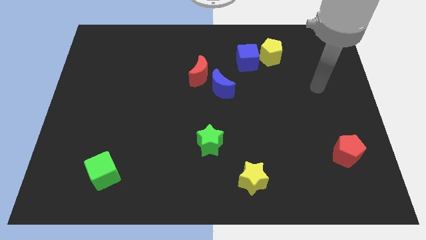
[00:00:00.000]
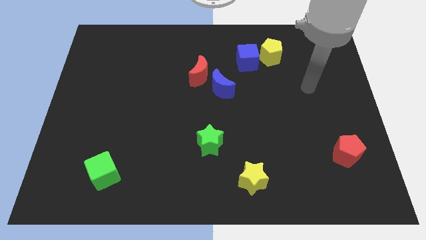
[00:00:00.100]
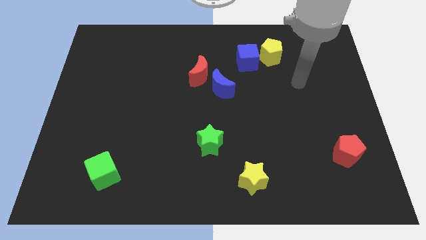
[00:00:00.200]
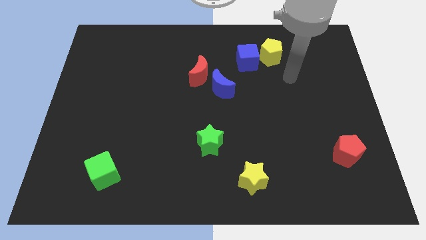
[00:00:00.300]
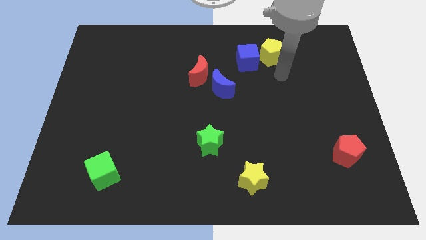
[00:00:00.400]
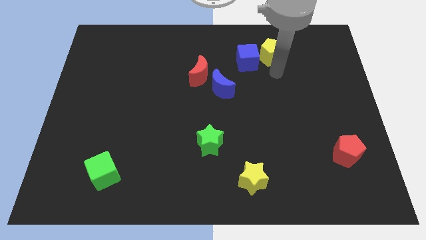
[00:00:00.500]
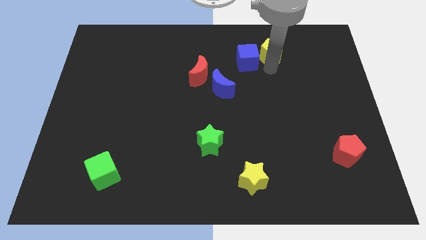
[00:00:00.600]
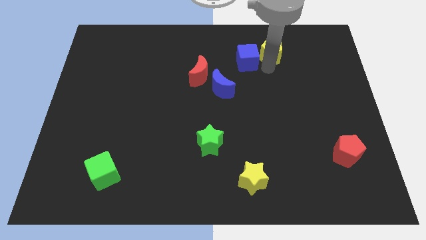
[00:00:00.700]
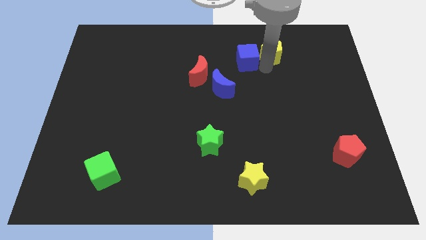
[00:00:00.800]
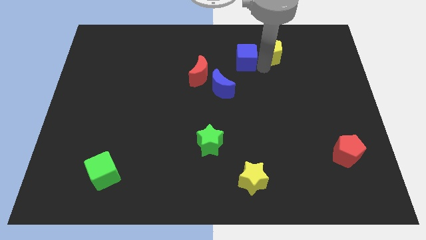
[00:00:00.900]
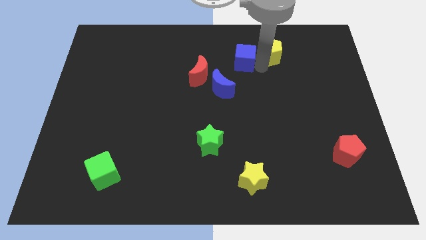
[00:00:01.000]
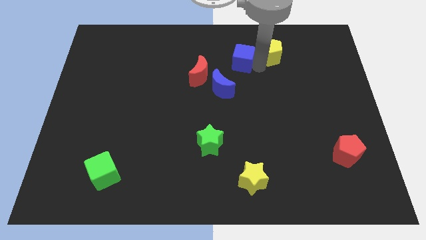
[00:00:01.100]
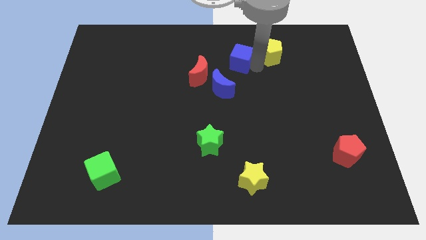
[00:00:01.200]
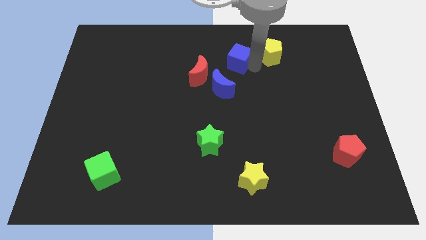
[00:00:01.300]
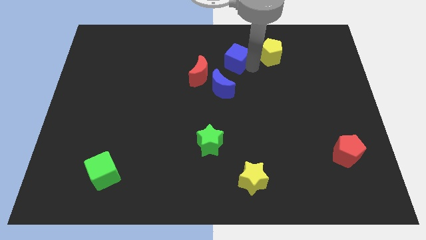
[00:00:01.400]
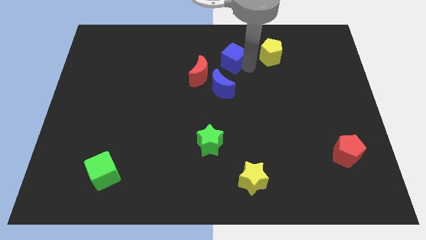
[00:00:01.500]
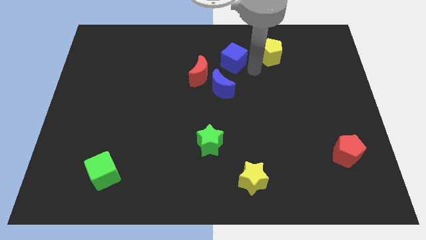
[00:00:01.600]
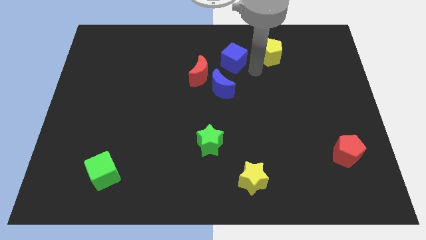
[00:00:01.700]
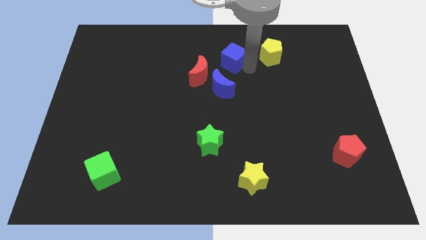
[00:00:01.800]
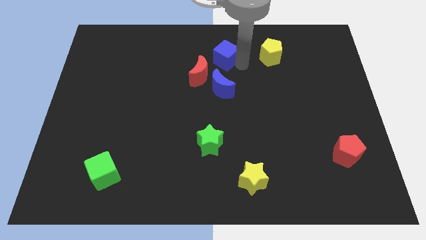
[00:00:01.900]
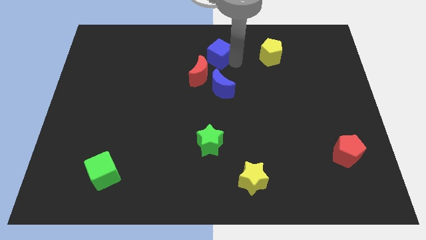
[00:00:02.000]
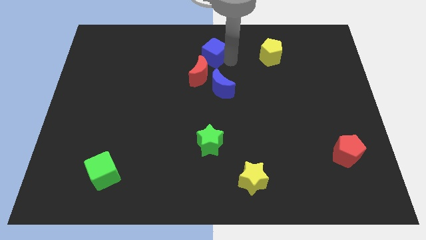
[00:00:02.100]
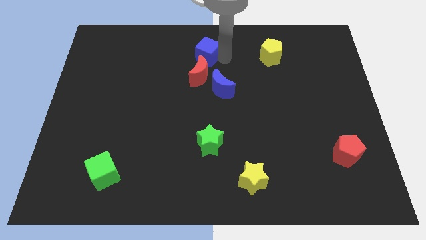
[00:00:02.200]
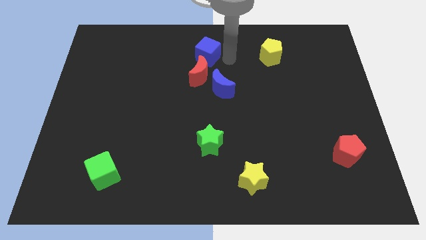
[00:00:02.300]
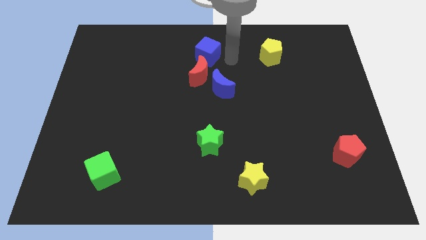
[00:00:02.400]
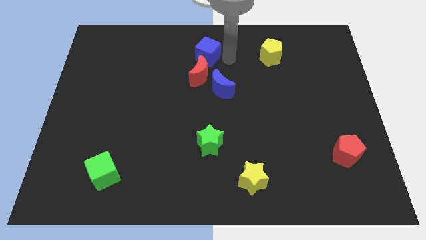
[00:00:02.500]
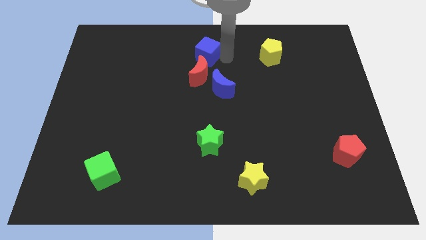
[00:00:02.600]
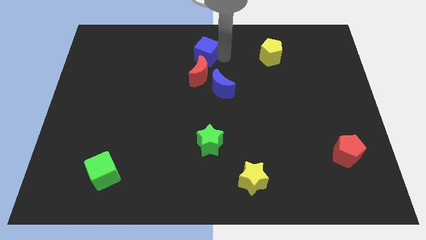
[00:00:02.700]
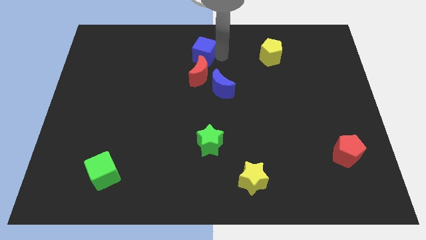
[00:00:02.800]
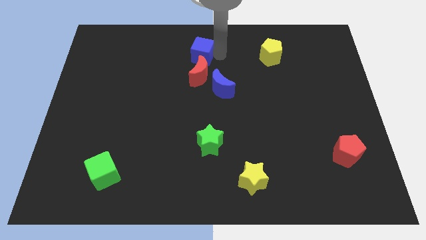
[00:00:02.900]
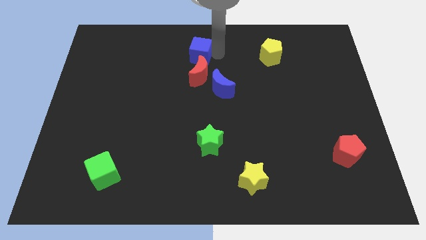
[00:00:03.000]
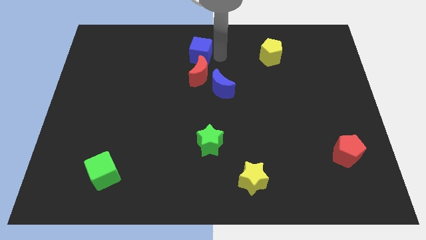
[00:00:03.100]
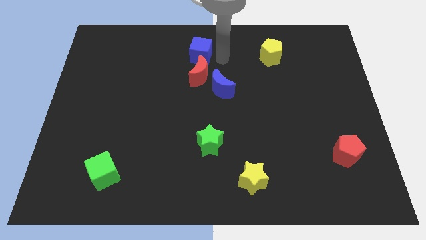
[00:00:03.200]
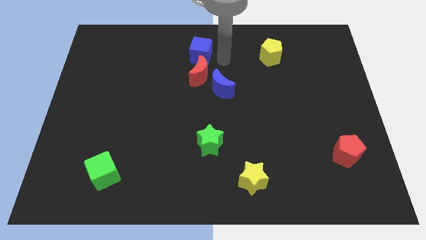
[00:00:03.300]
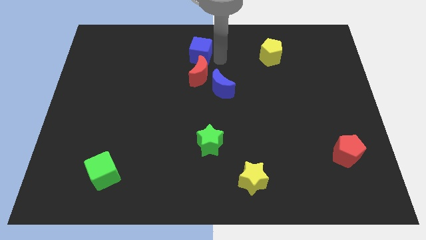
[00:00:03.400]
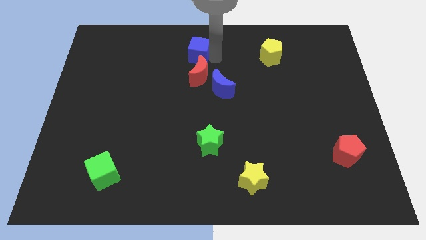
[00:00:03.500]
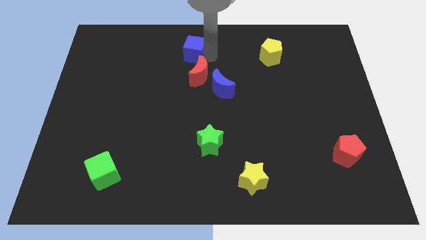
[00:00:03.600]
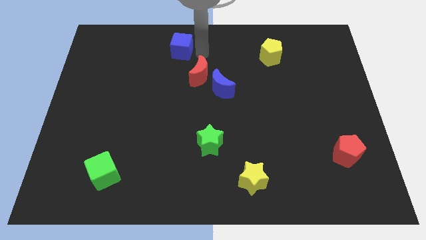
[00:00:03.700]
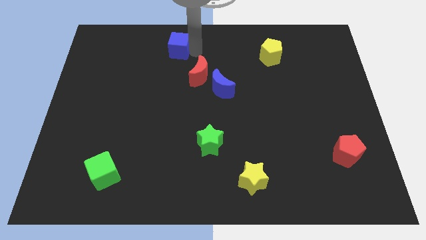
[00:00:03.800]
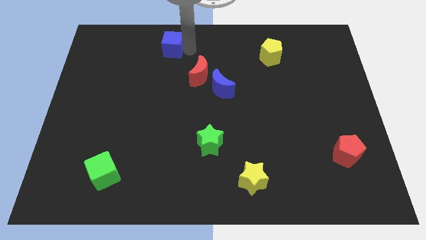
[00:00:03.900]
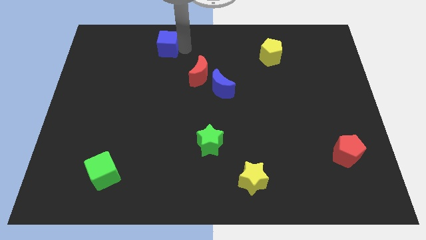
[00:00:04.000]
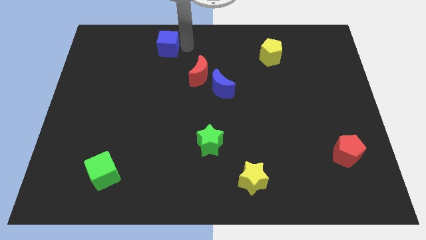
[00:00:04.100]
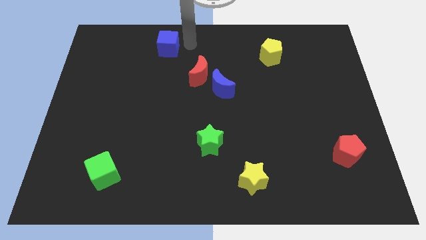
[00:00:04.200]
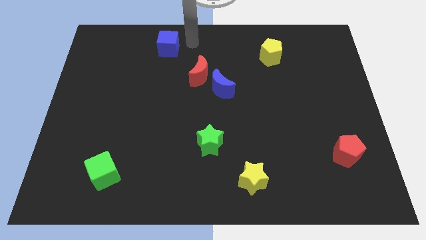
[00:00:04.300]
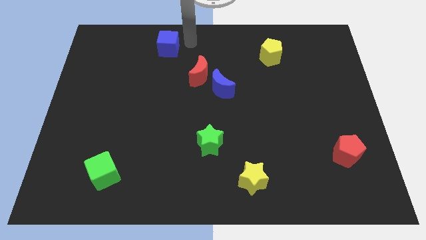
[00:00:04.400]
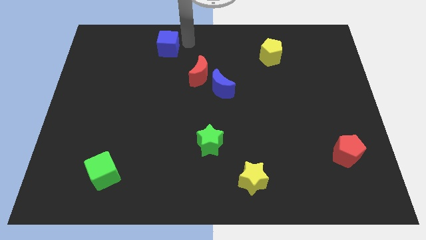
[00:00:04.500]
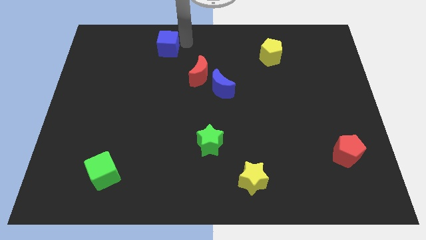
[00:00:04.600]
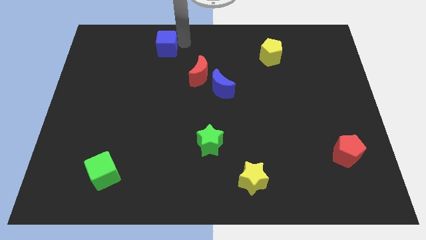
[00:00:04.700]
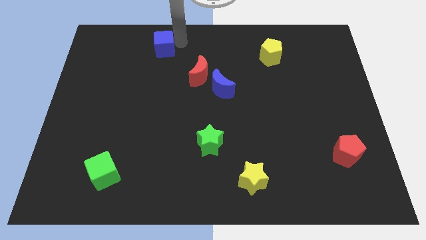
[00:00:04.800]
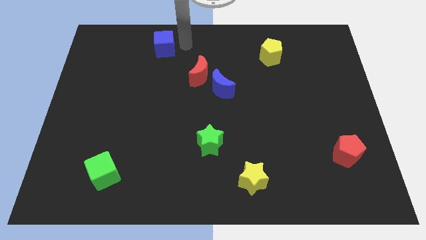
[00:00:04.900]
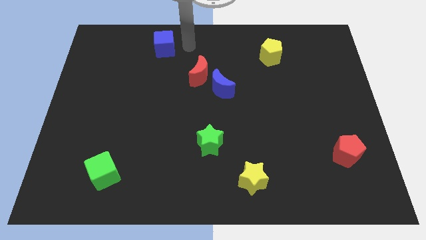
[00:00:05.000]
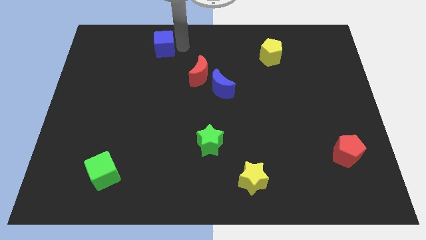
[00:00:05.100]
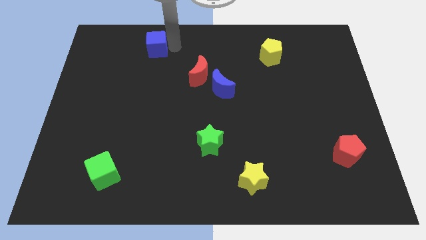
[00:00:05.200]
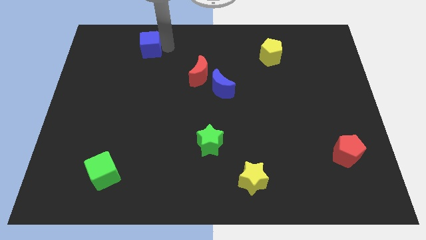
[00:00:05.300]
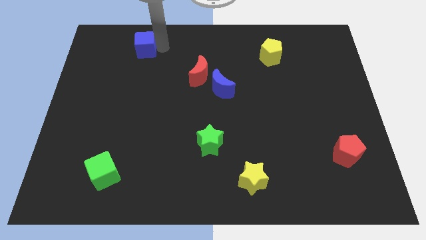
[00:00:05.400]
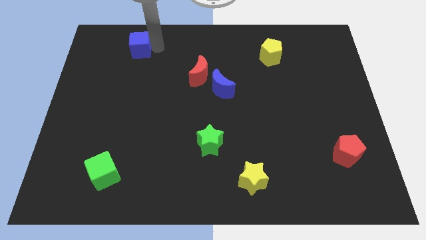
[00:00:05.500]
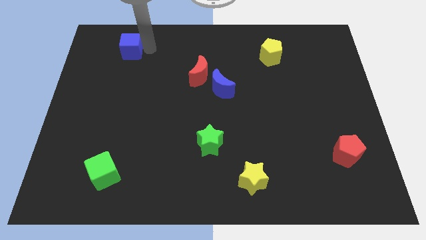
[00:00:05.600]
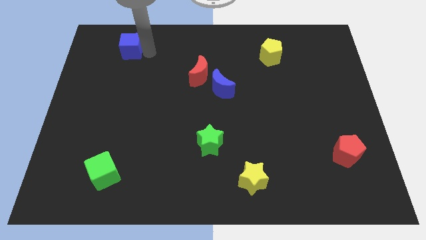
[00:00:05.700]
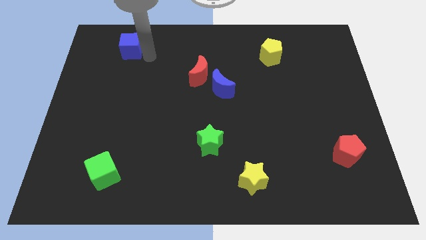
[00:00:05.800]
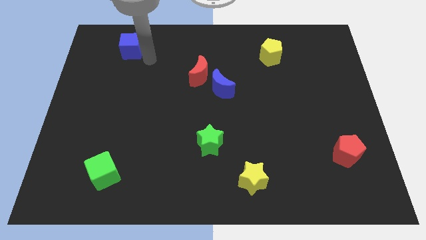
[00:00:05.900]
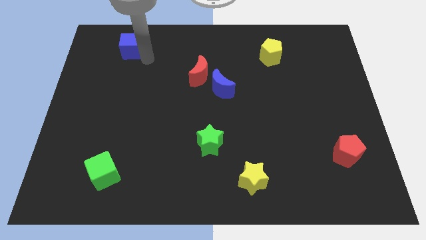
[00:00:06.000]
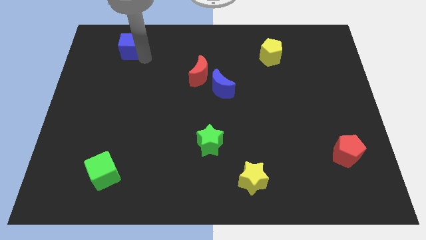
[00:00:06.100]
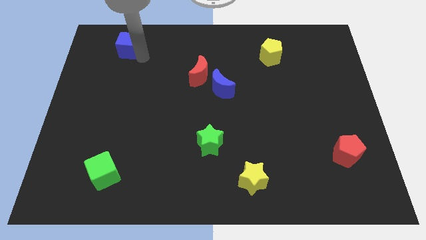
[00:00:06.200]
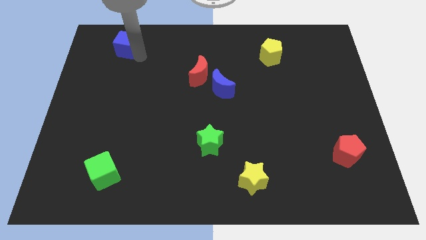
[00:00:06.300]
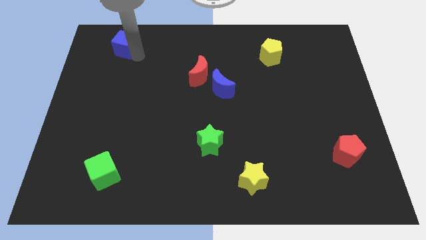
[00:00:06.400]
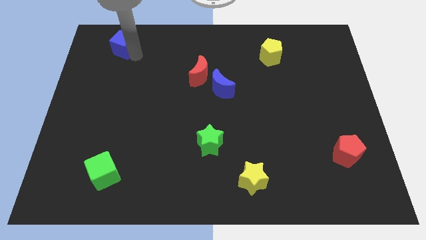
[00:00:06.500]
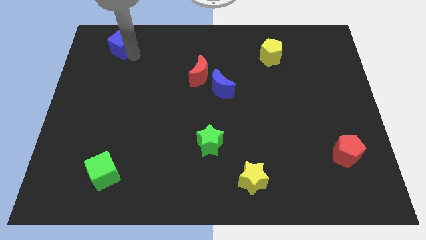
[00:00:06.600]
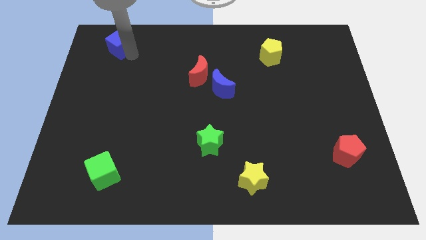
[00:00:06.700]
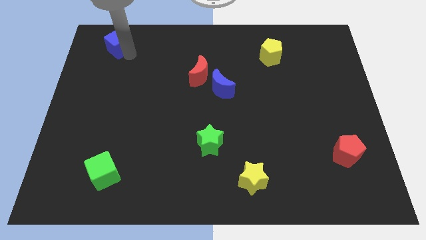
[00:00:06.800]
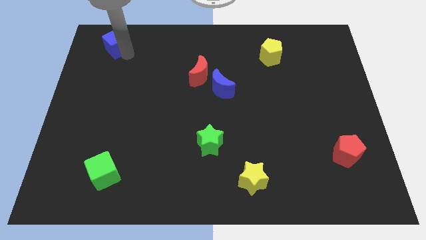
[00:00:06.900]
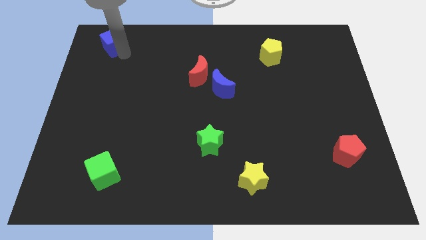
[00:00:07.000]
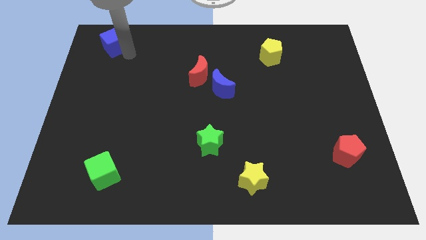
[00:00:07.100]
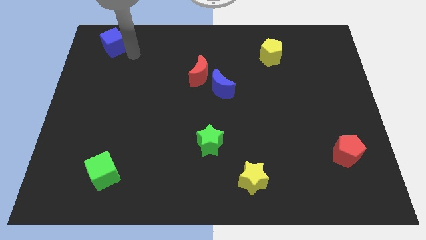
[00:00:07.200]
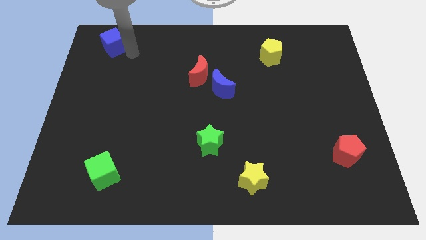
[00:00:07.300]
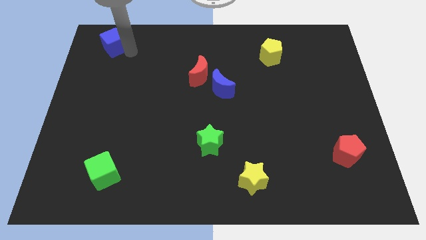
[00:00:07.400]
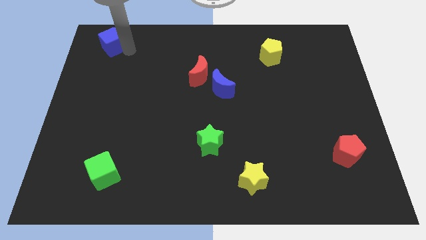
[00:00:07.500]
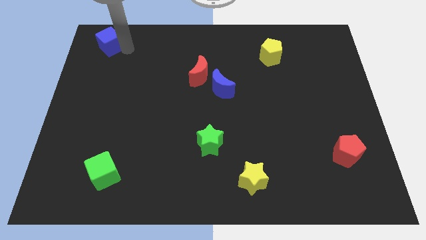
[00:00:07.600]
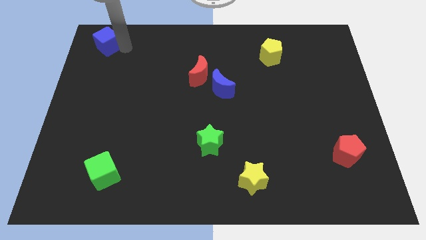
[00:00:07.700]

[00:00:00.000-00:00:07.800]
slide the blue cube to the upper left corner
